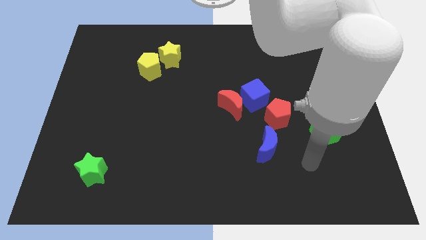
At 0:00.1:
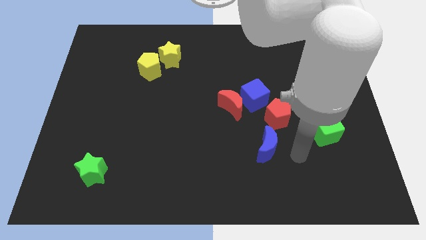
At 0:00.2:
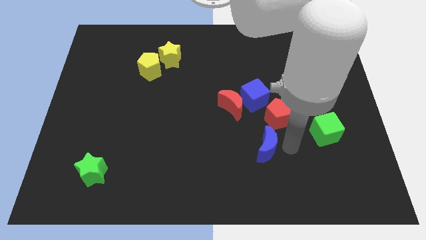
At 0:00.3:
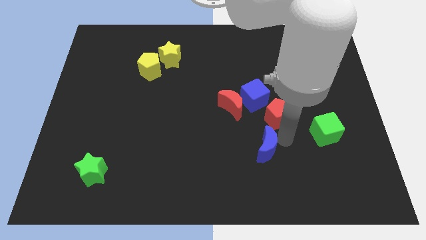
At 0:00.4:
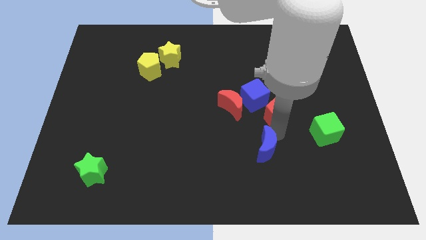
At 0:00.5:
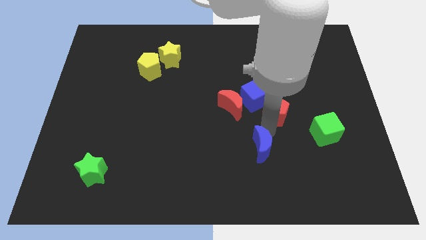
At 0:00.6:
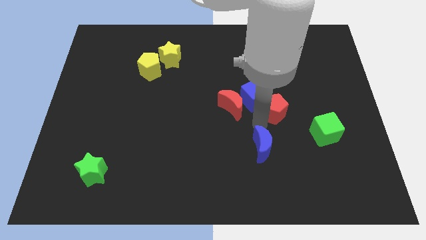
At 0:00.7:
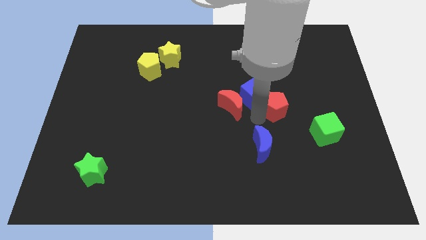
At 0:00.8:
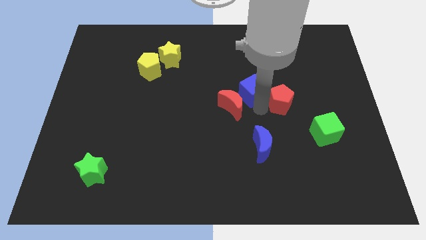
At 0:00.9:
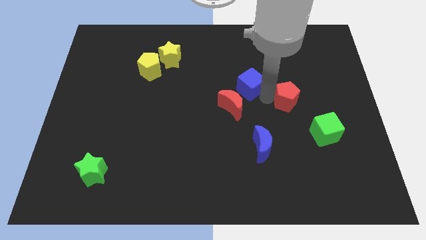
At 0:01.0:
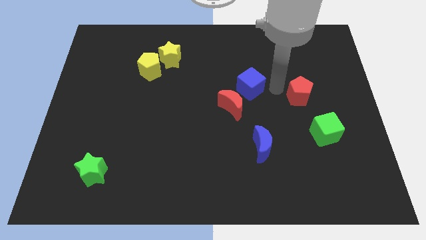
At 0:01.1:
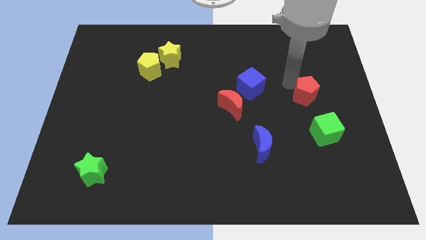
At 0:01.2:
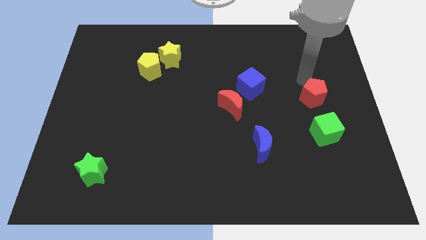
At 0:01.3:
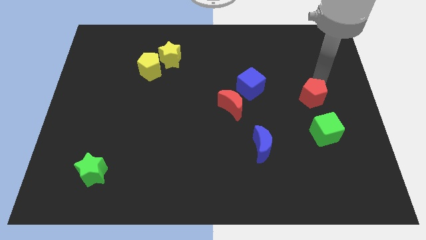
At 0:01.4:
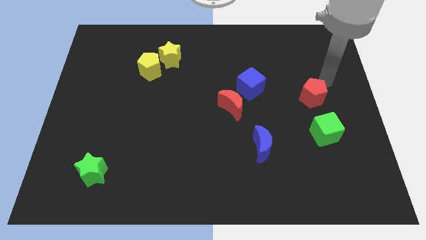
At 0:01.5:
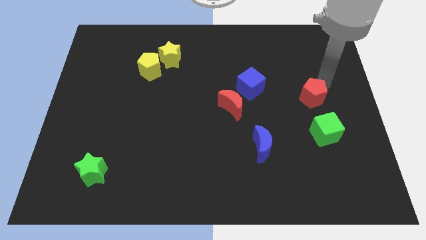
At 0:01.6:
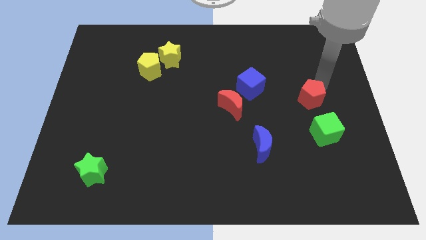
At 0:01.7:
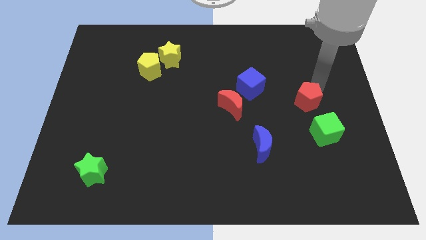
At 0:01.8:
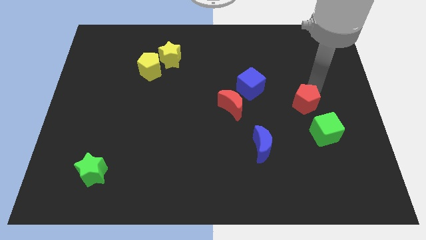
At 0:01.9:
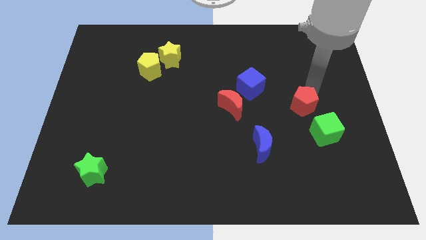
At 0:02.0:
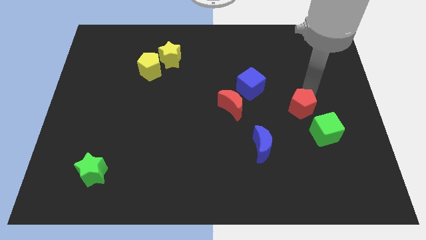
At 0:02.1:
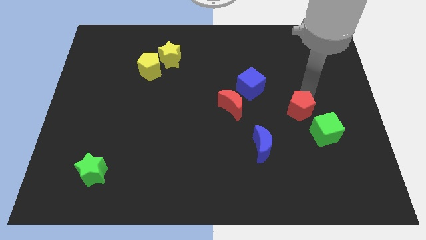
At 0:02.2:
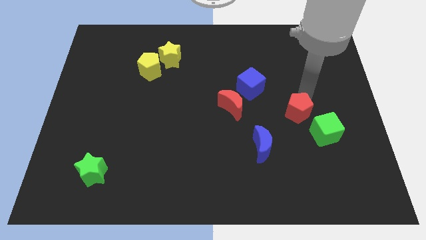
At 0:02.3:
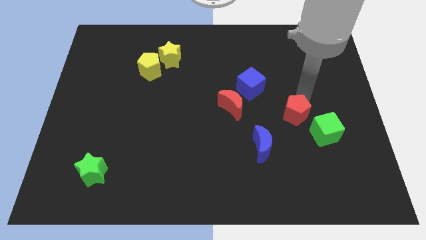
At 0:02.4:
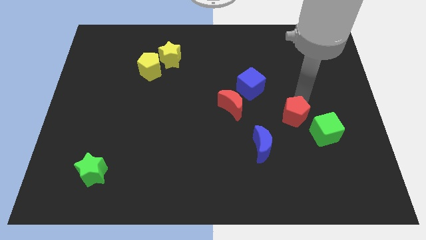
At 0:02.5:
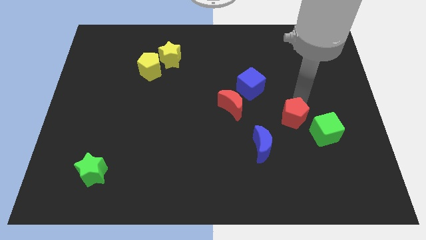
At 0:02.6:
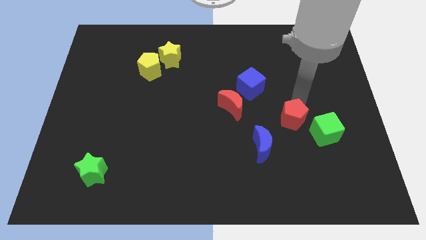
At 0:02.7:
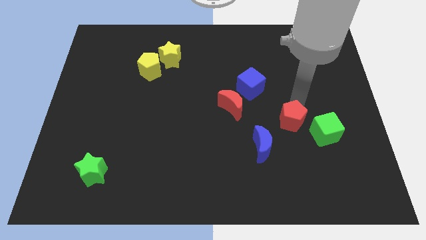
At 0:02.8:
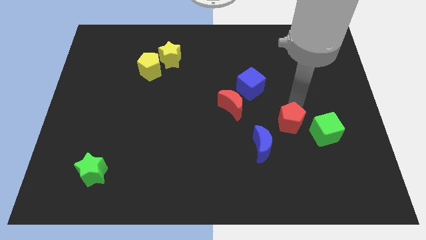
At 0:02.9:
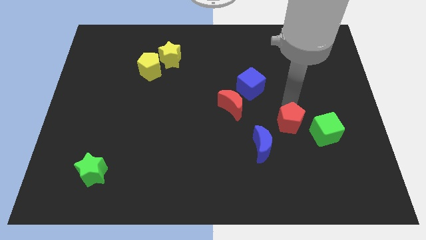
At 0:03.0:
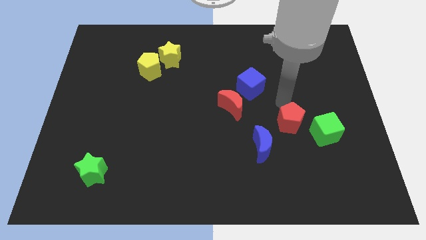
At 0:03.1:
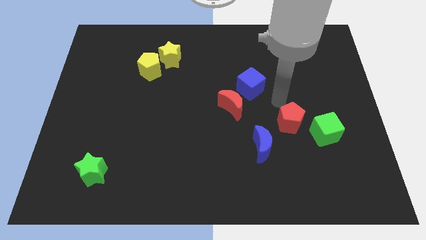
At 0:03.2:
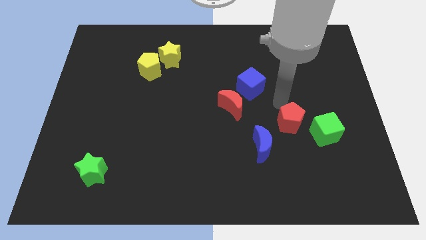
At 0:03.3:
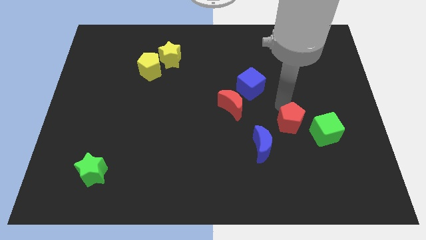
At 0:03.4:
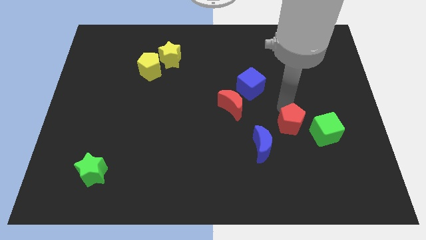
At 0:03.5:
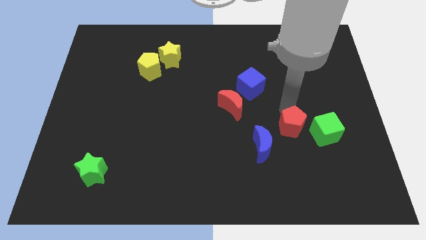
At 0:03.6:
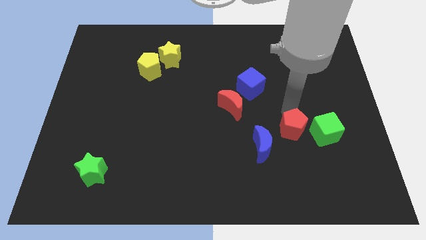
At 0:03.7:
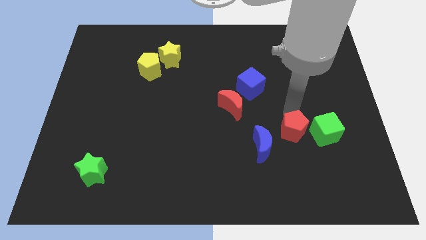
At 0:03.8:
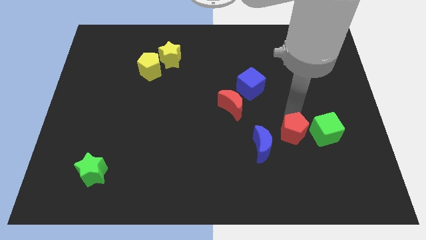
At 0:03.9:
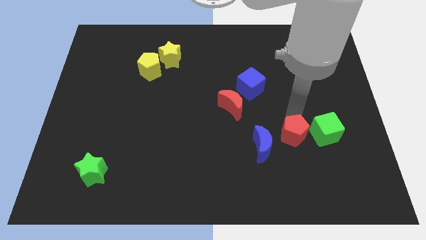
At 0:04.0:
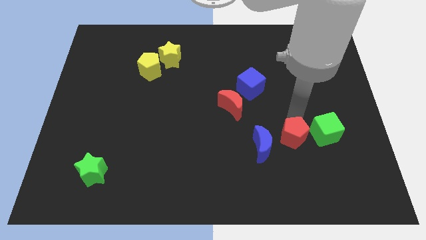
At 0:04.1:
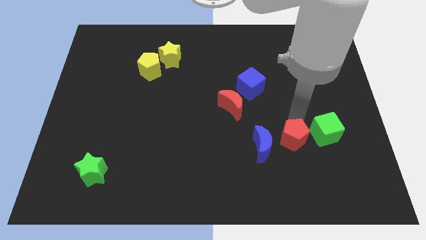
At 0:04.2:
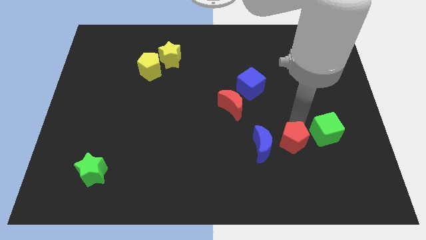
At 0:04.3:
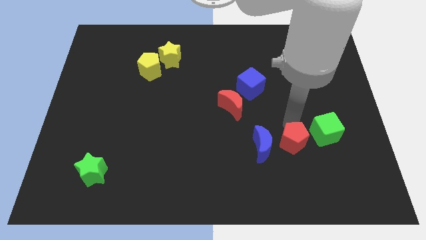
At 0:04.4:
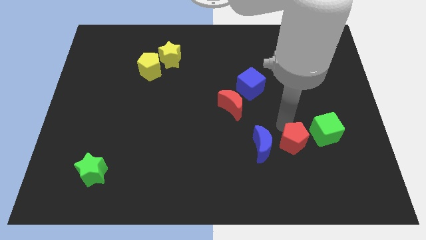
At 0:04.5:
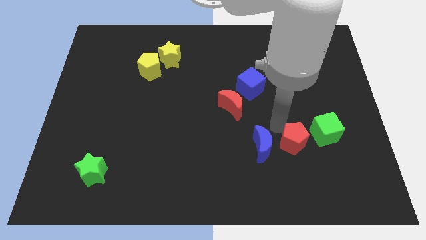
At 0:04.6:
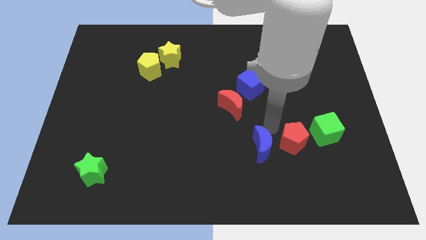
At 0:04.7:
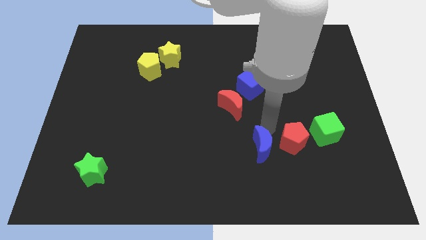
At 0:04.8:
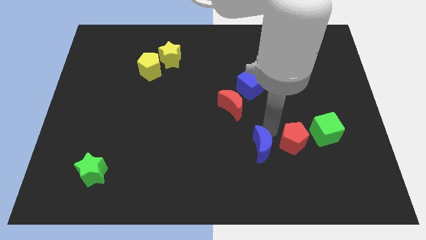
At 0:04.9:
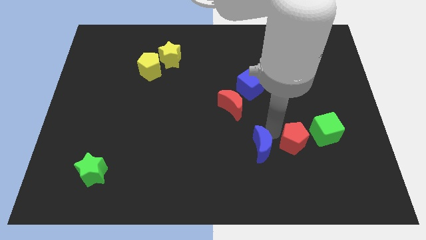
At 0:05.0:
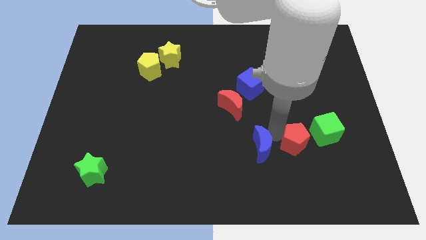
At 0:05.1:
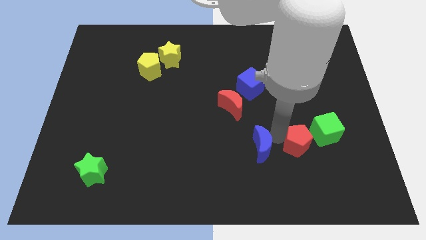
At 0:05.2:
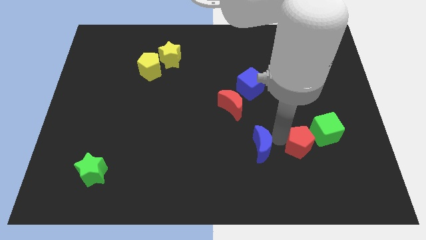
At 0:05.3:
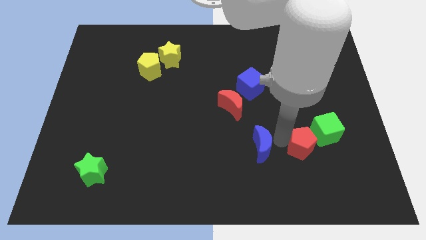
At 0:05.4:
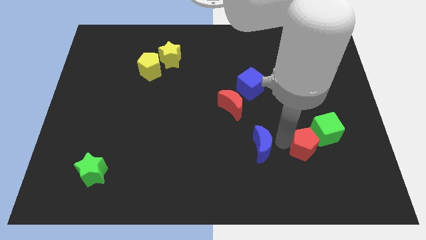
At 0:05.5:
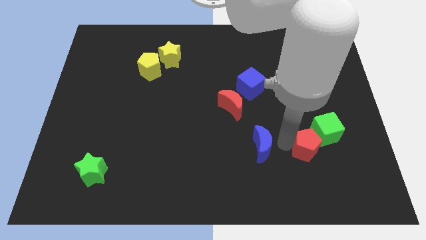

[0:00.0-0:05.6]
move the red pentagon to the bottom side of the green cube

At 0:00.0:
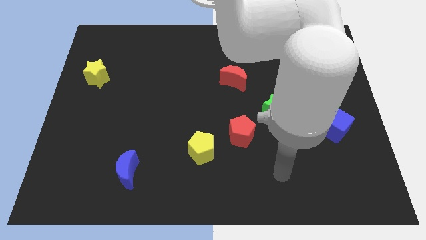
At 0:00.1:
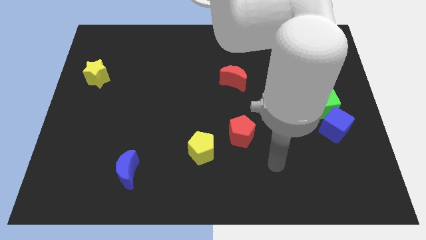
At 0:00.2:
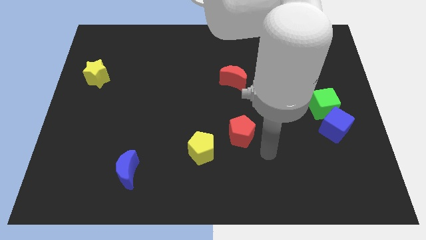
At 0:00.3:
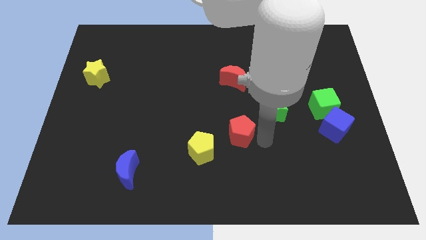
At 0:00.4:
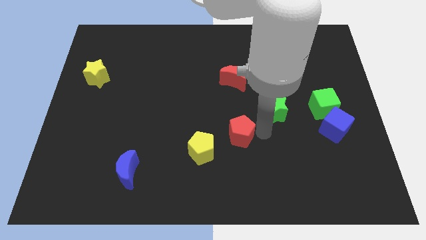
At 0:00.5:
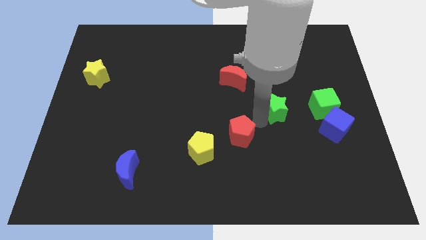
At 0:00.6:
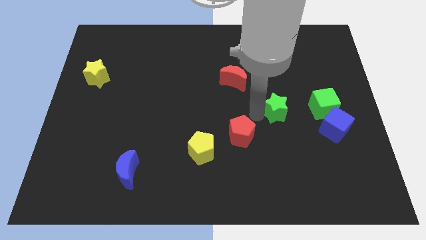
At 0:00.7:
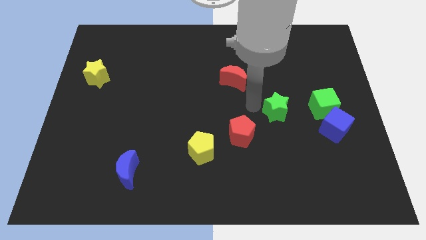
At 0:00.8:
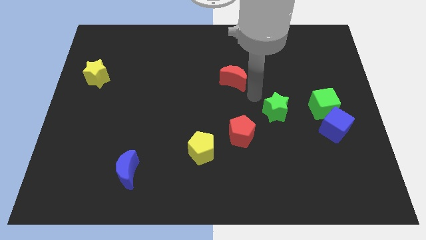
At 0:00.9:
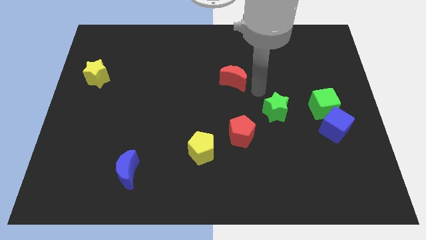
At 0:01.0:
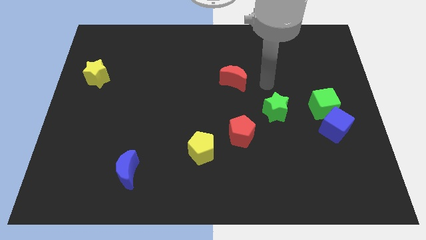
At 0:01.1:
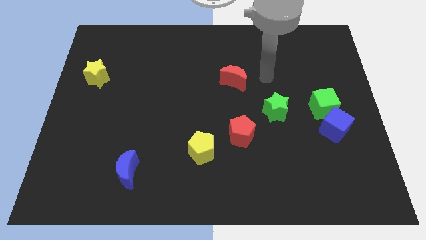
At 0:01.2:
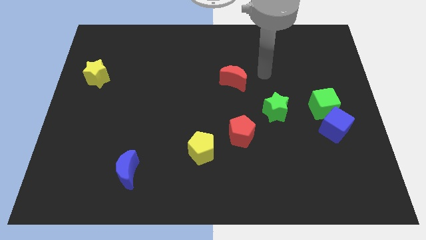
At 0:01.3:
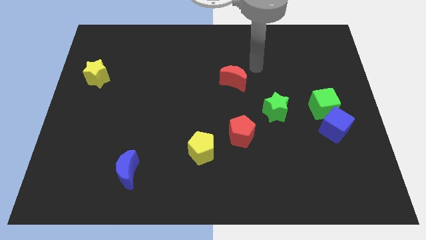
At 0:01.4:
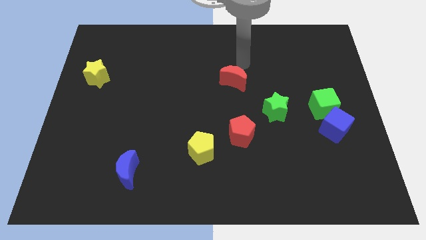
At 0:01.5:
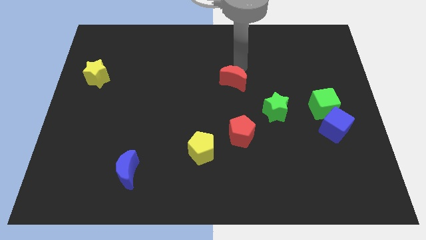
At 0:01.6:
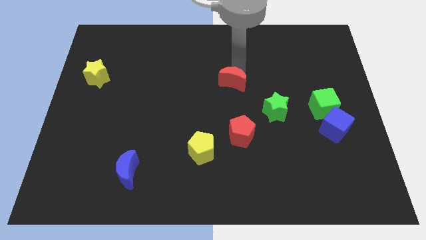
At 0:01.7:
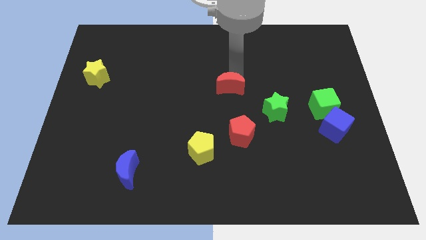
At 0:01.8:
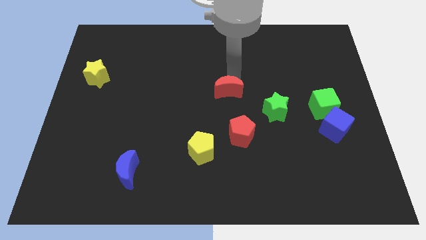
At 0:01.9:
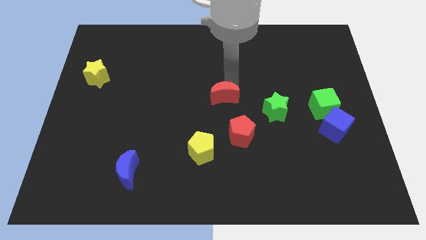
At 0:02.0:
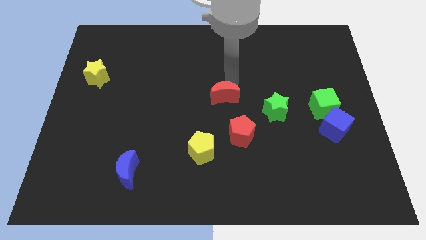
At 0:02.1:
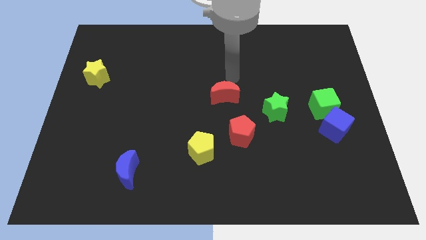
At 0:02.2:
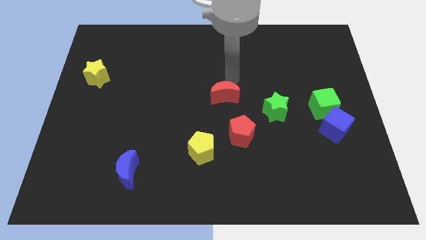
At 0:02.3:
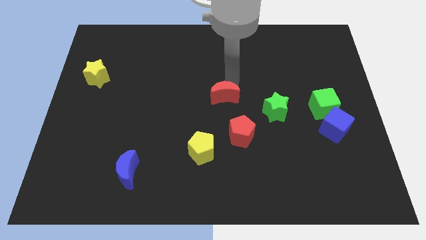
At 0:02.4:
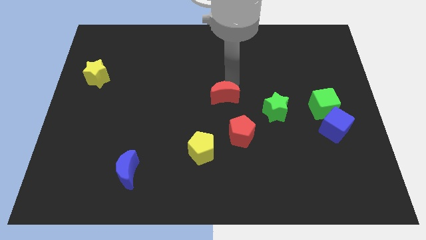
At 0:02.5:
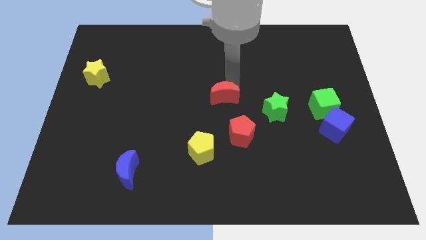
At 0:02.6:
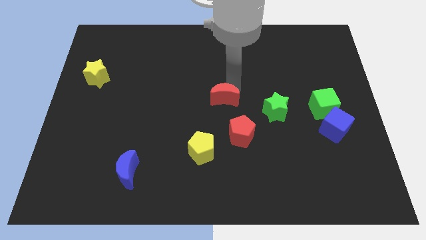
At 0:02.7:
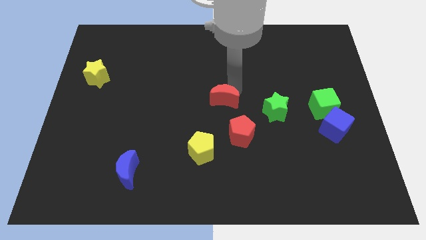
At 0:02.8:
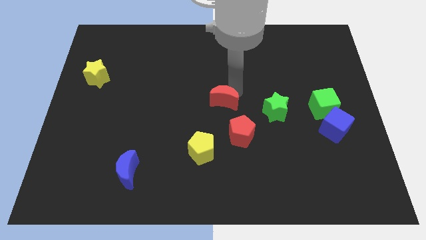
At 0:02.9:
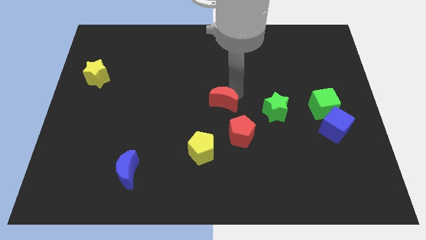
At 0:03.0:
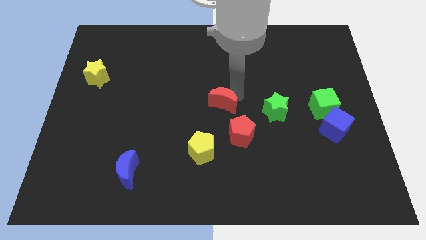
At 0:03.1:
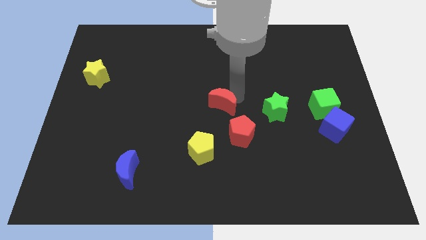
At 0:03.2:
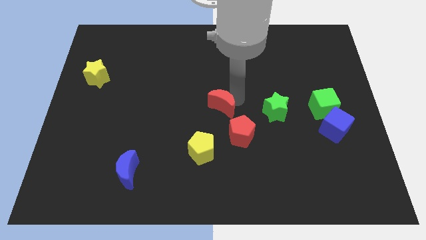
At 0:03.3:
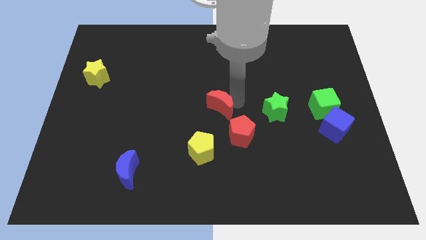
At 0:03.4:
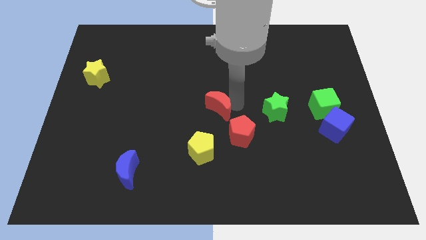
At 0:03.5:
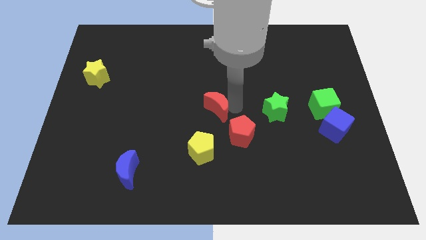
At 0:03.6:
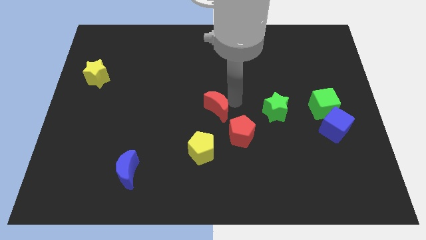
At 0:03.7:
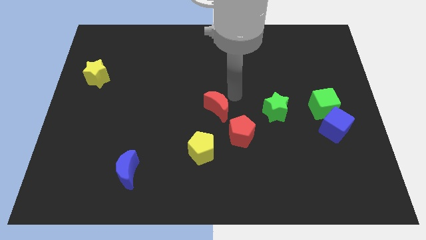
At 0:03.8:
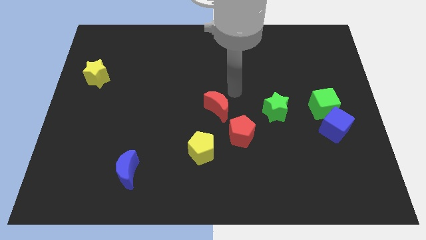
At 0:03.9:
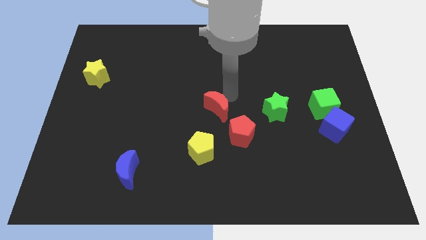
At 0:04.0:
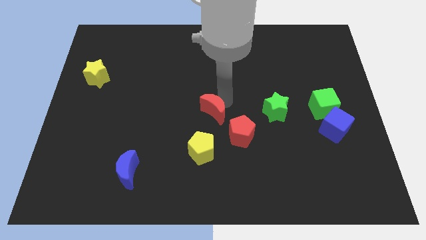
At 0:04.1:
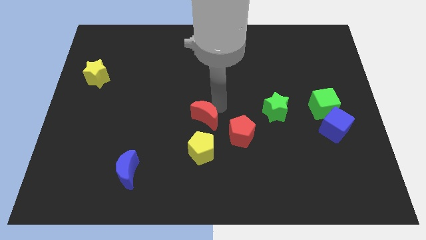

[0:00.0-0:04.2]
move the red moon just left of the red pentagon
